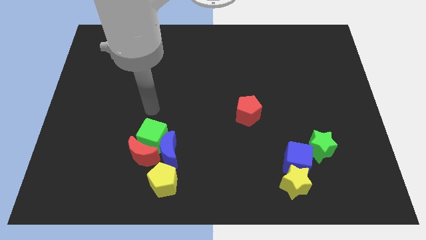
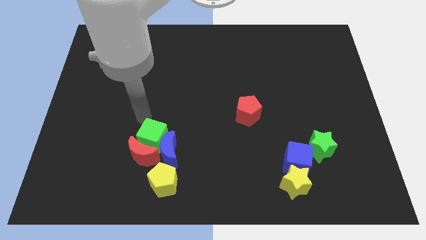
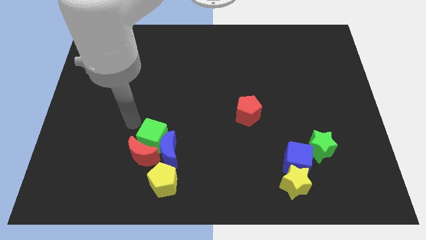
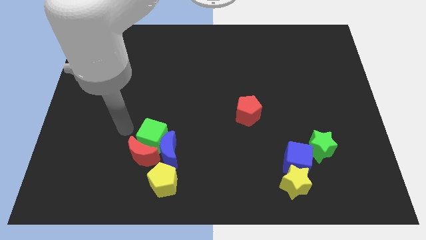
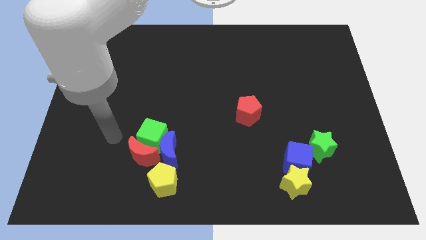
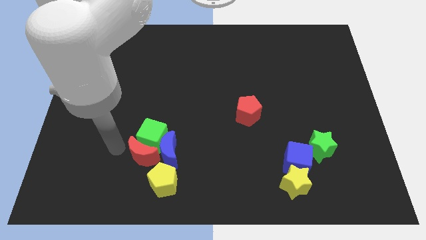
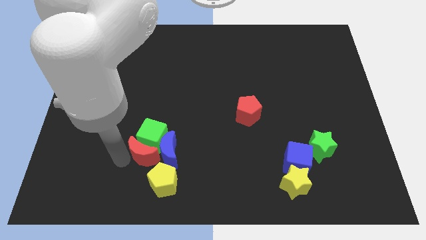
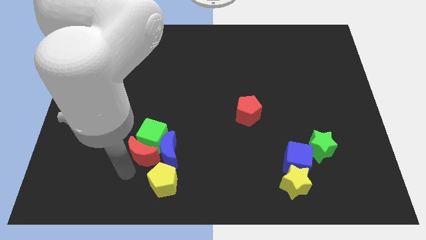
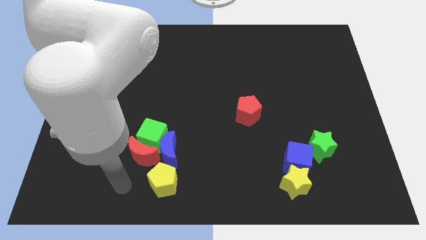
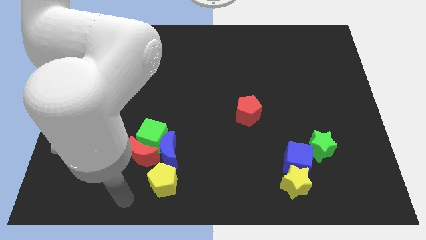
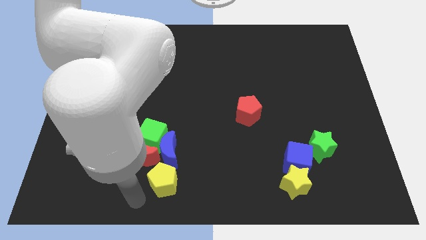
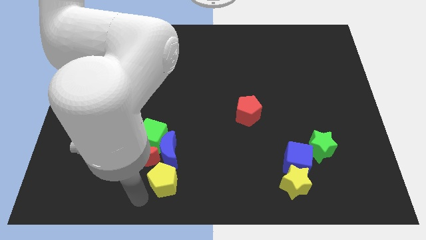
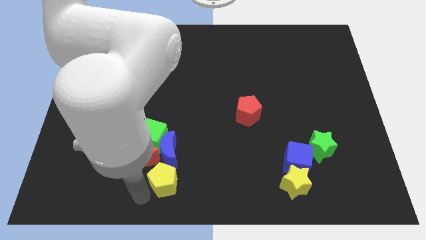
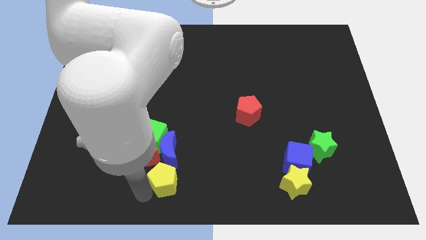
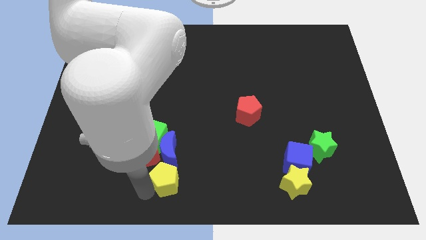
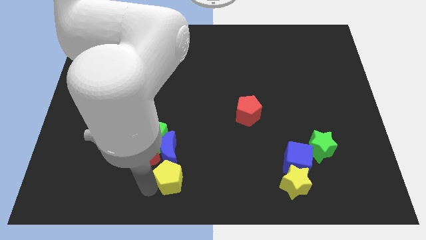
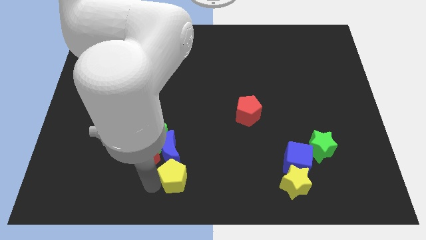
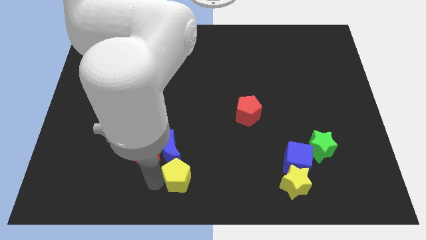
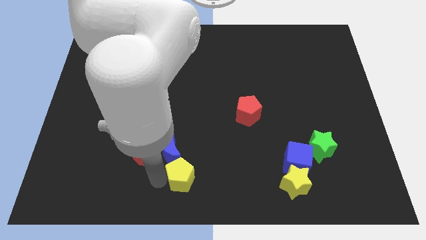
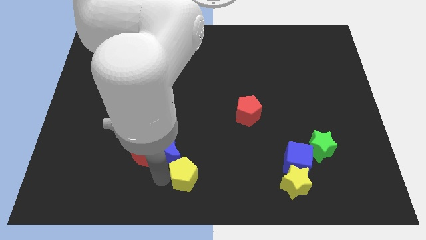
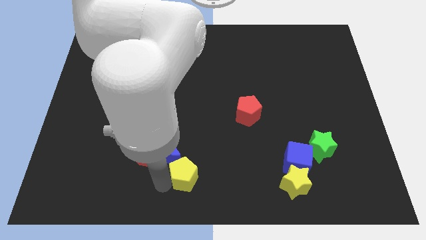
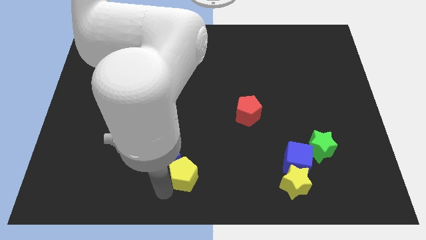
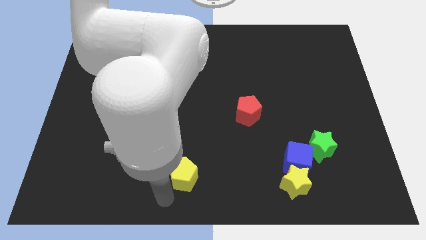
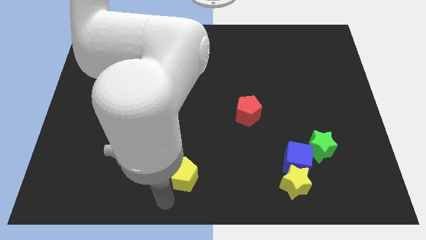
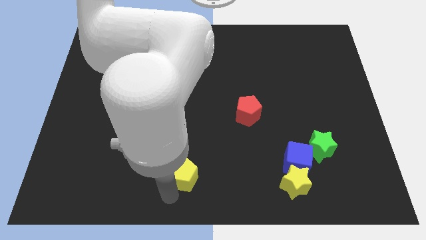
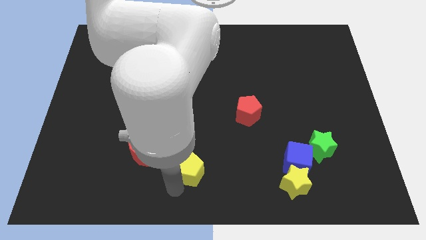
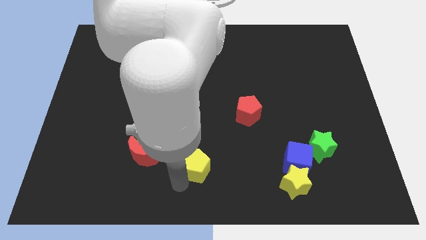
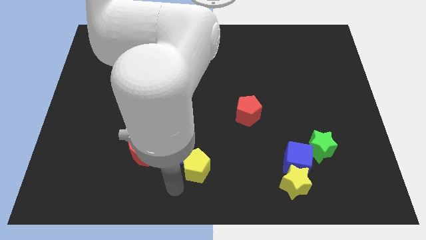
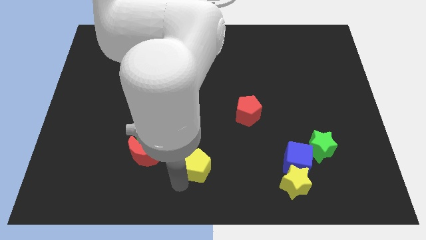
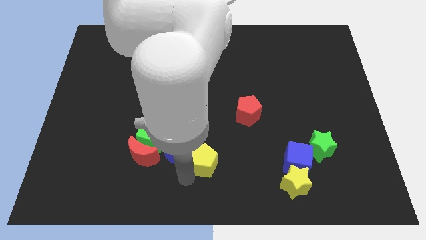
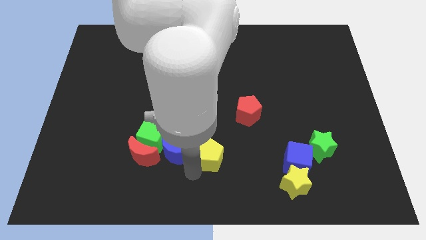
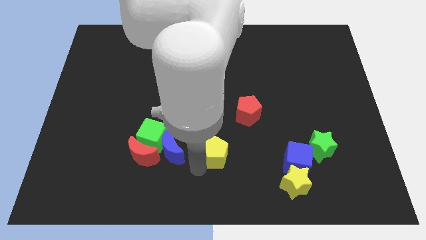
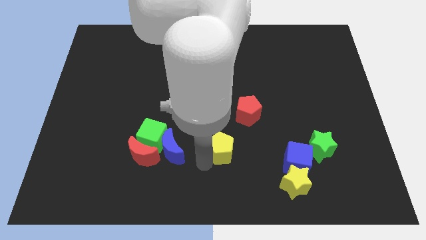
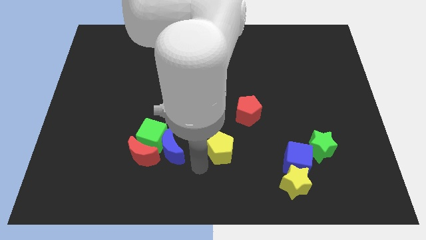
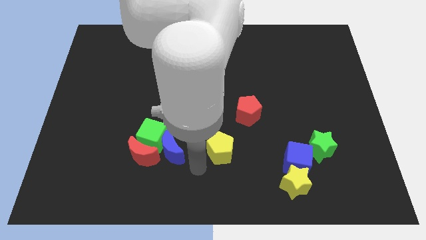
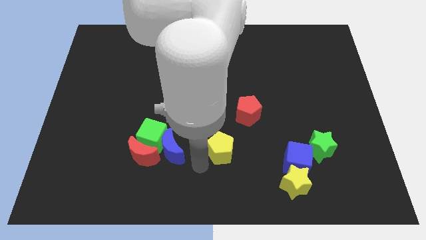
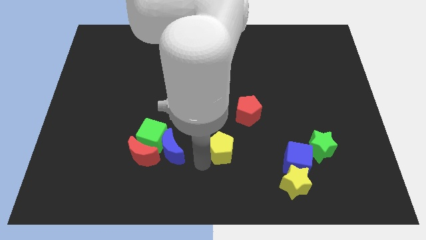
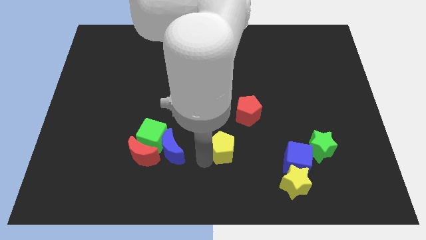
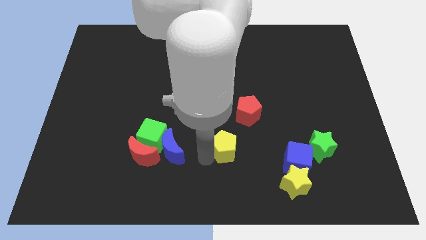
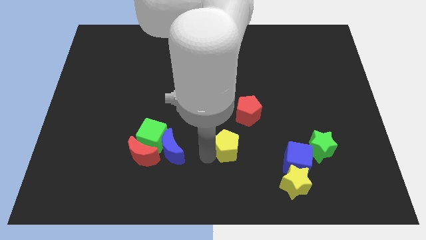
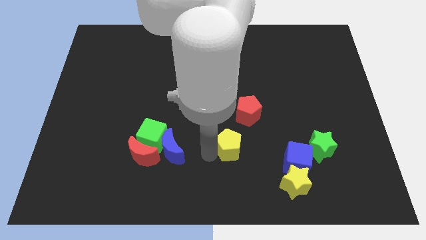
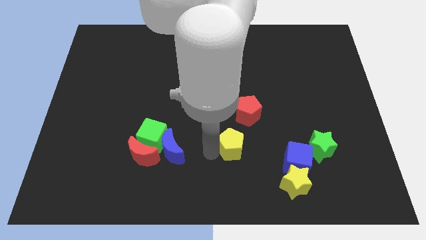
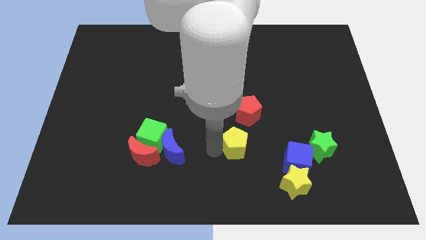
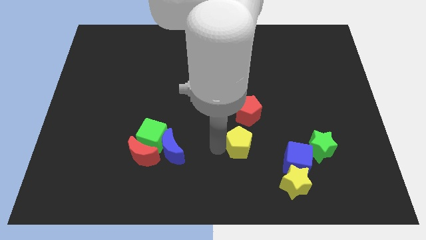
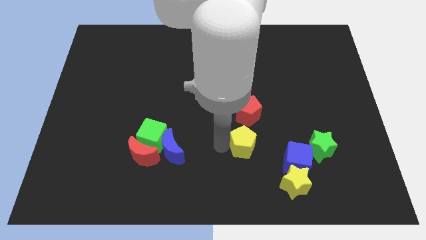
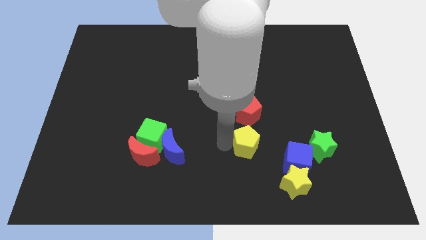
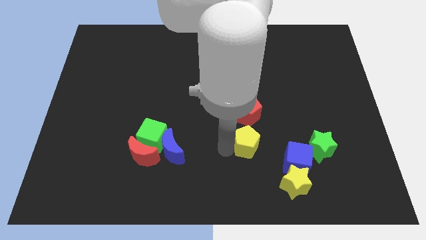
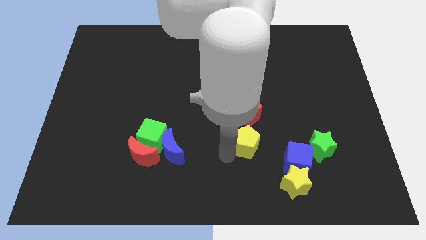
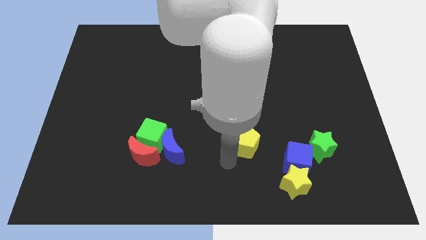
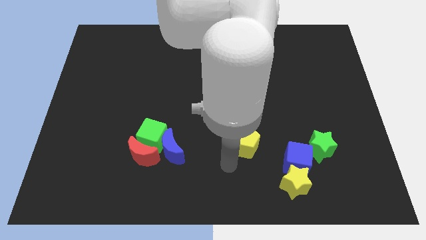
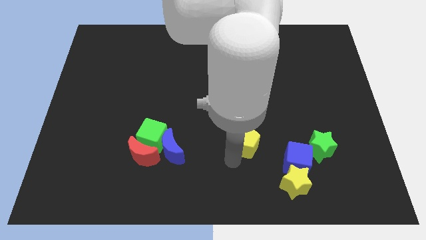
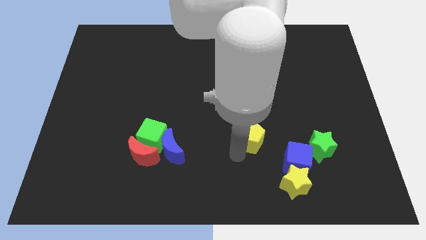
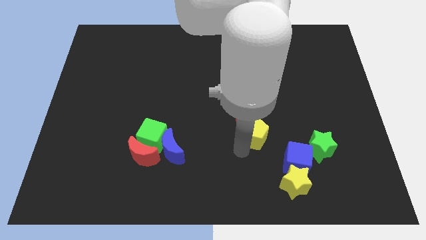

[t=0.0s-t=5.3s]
push the yellow pentagon upwards and then to the right

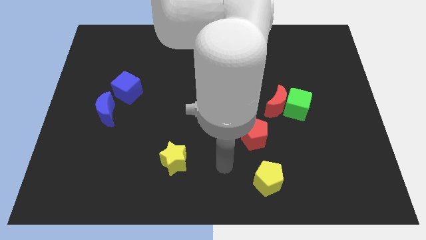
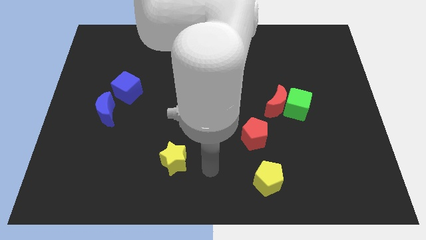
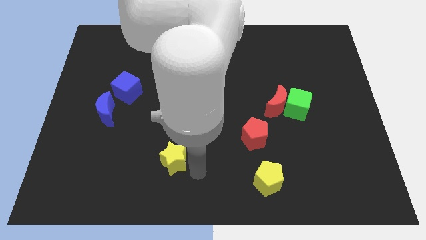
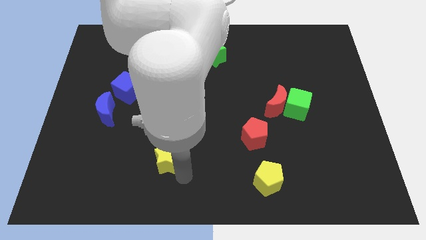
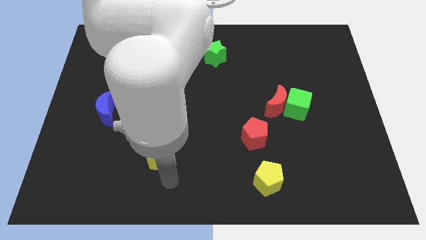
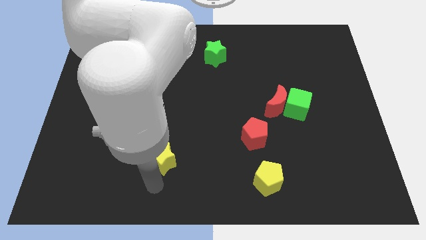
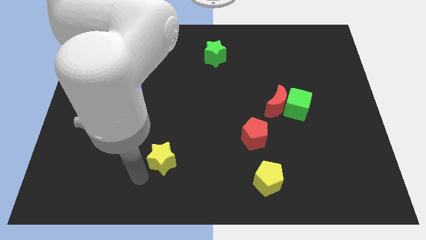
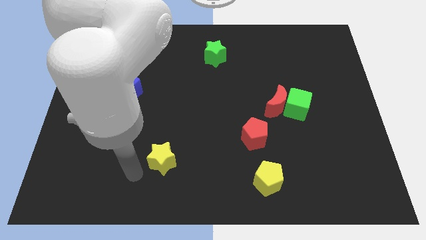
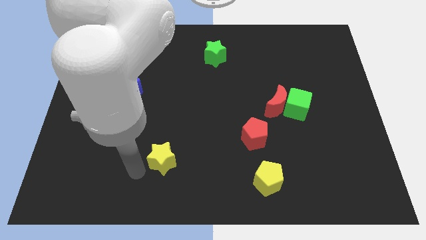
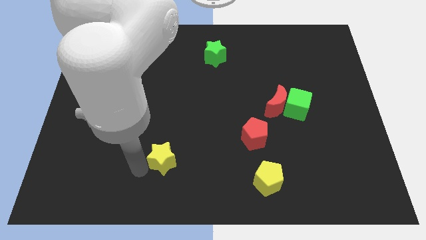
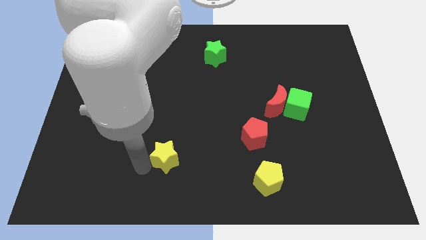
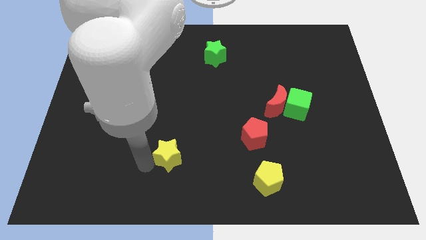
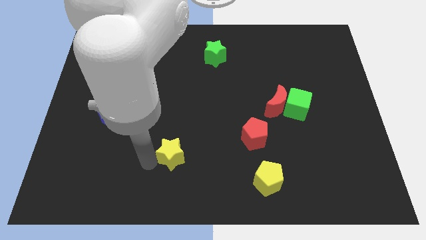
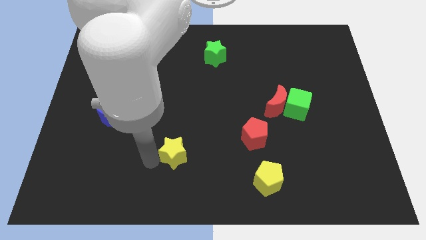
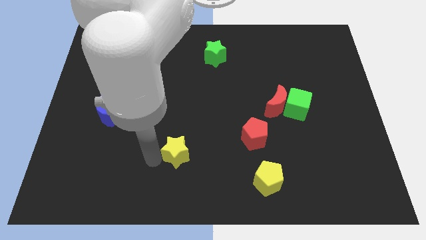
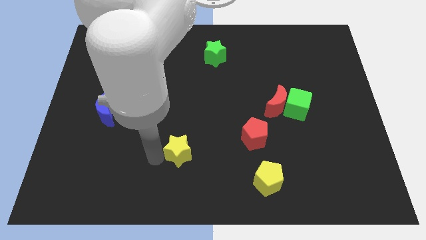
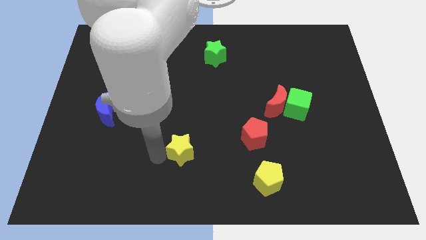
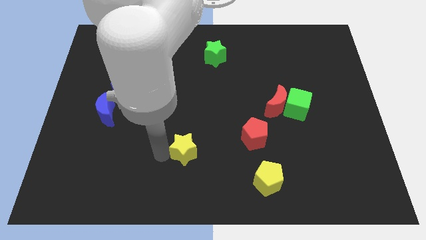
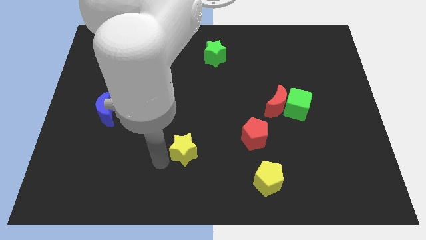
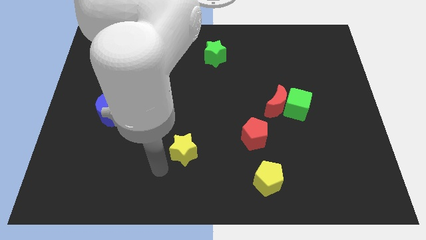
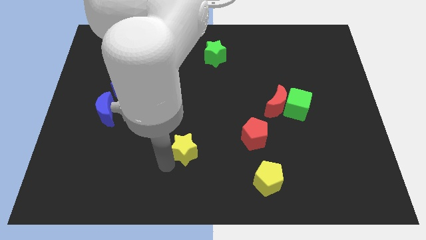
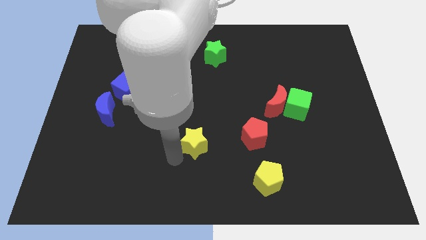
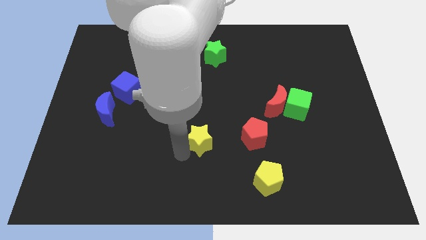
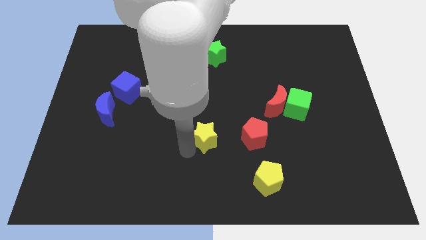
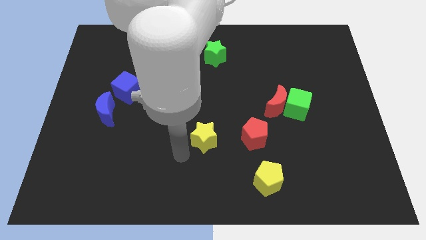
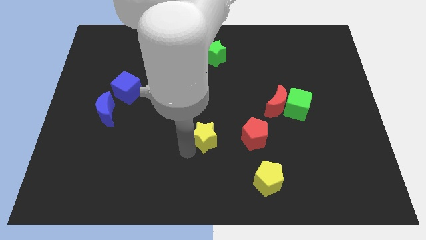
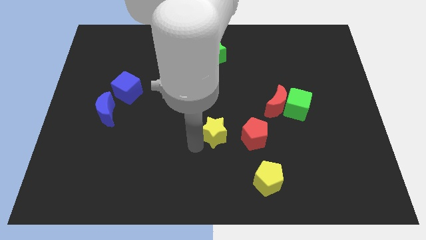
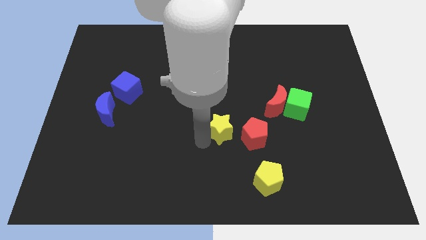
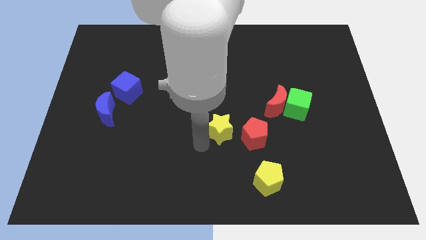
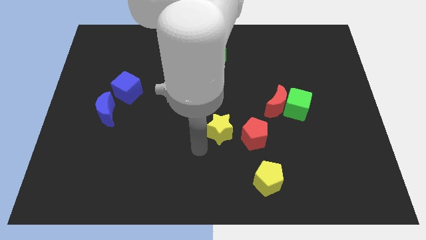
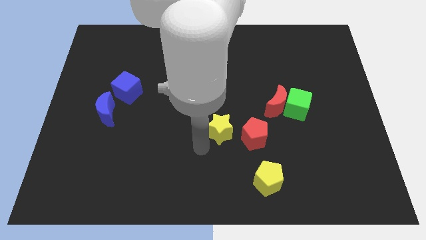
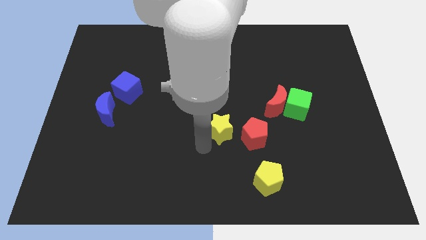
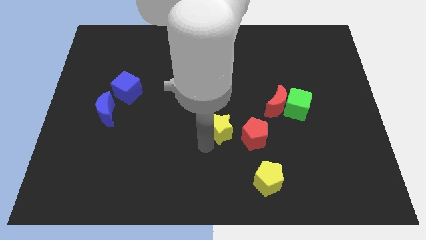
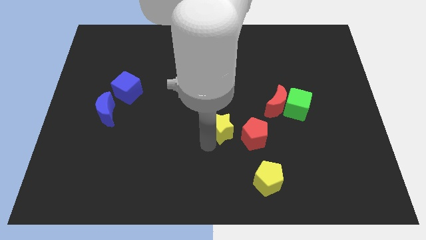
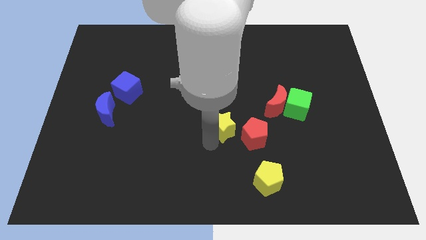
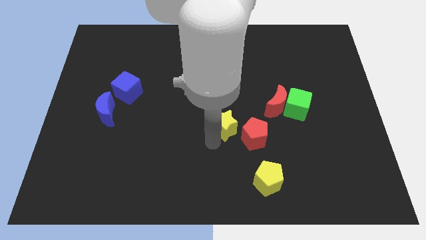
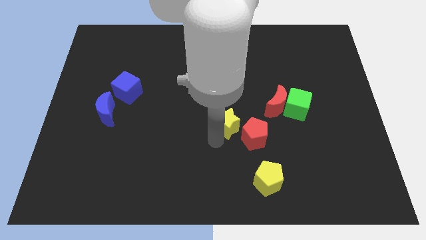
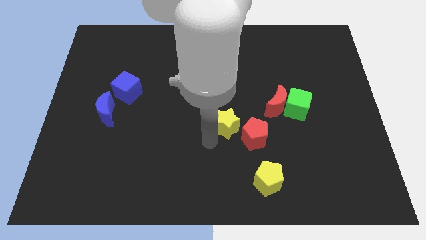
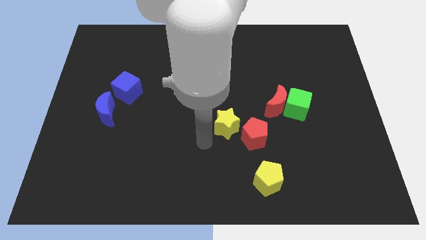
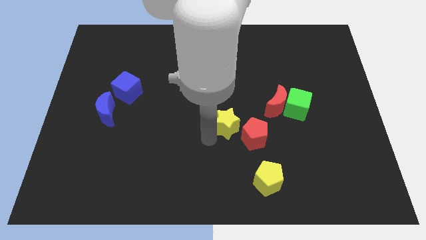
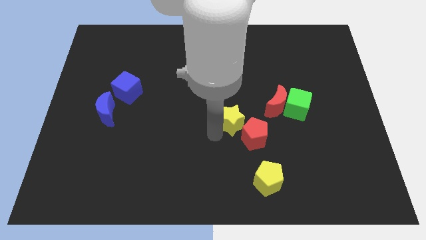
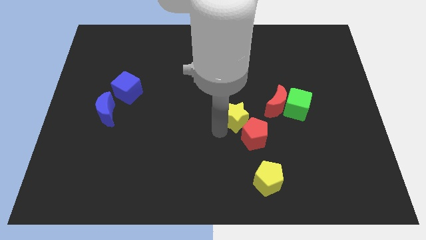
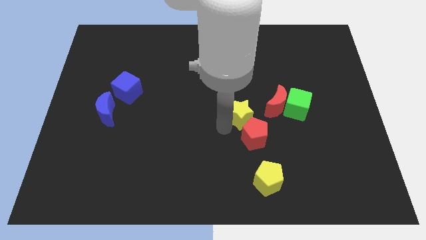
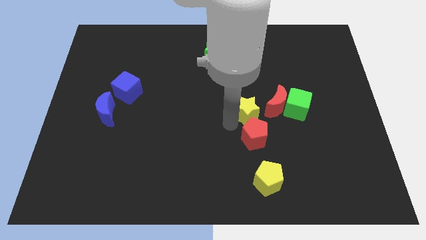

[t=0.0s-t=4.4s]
slide the yellow star diagonally upwards and to the right
